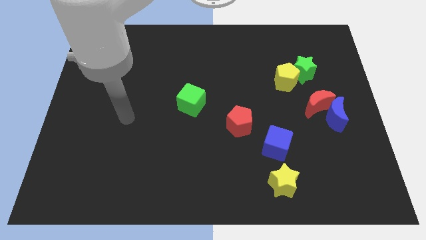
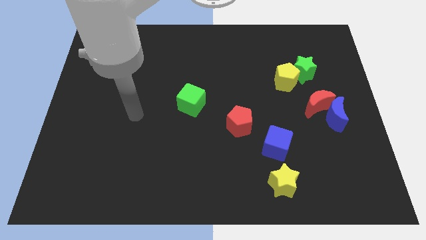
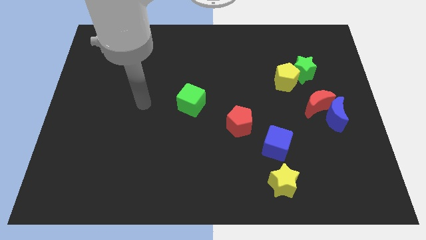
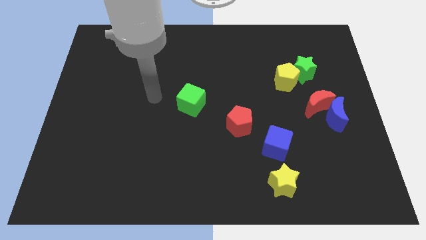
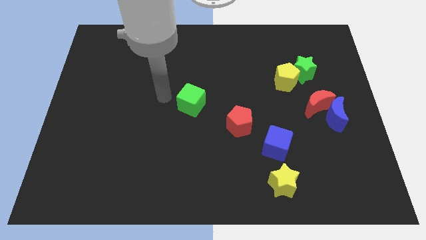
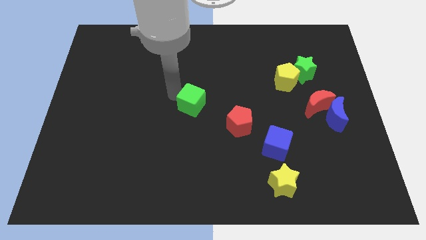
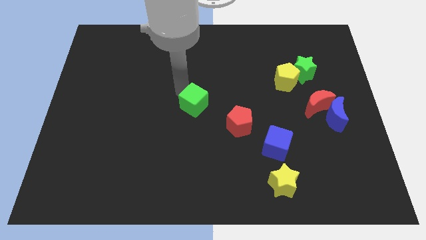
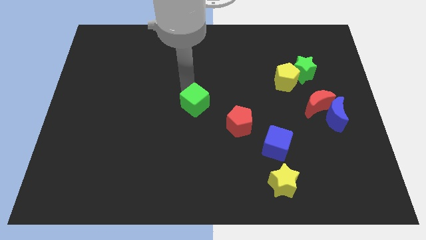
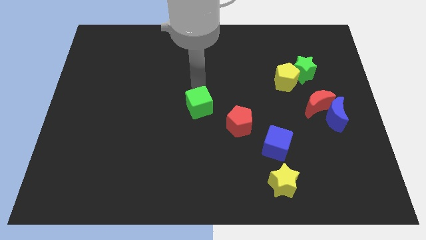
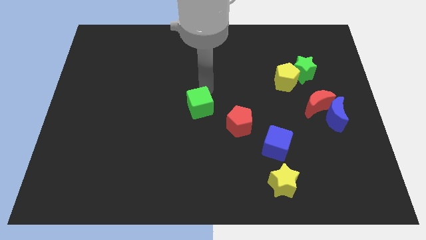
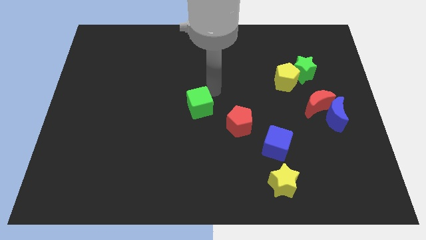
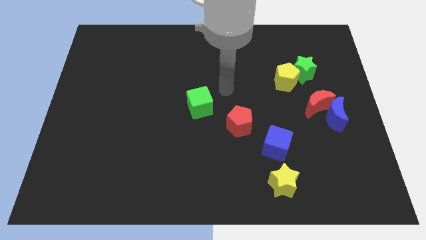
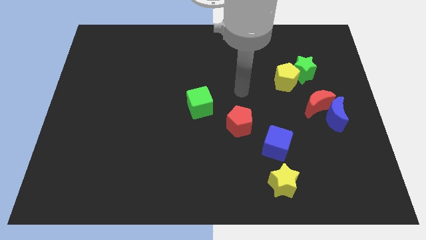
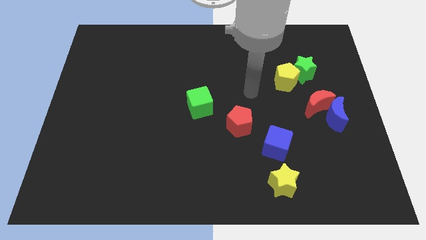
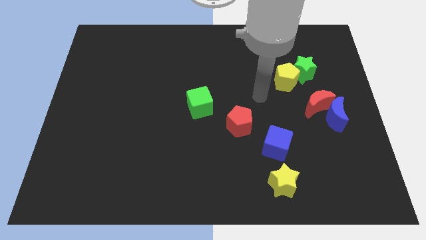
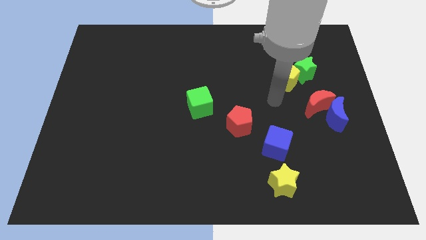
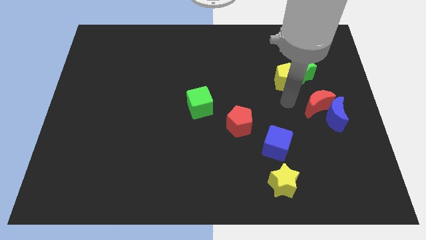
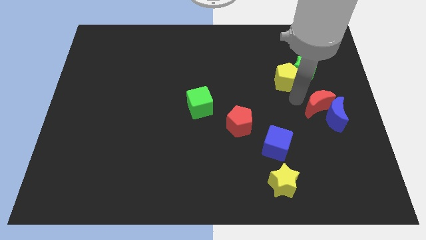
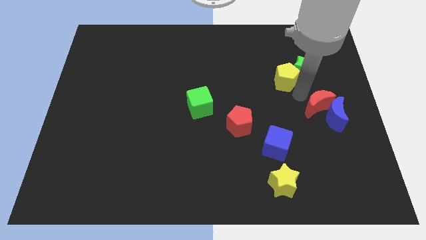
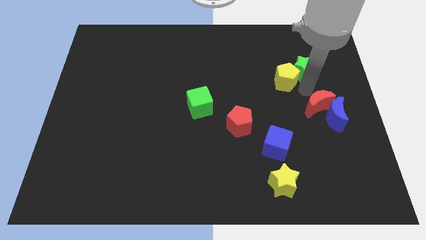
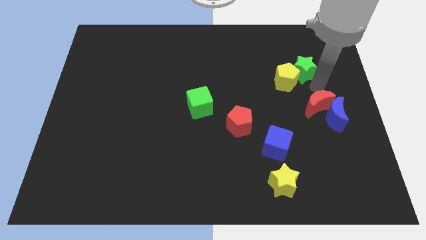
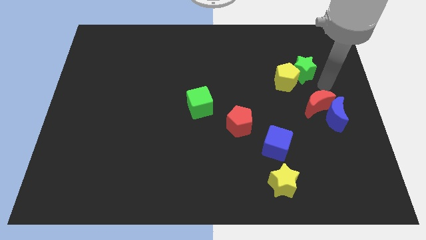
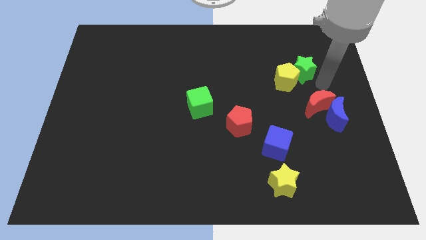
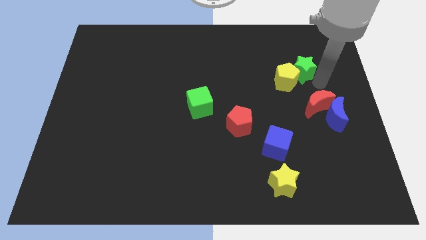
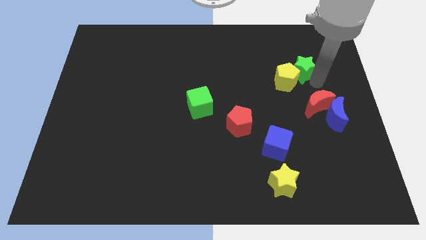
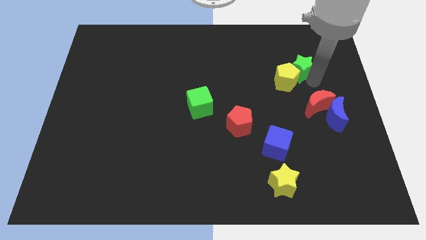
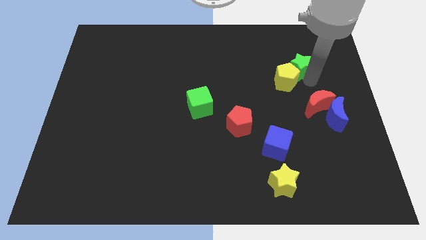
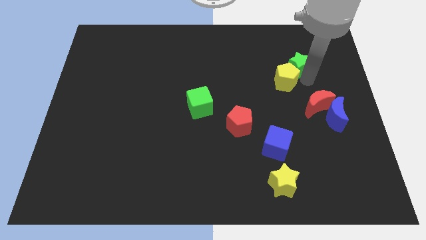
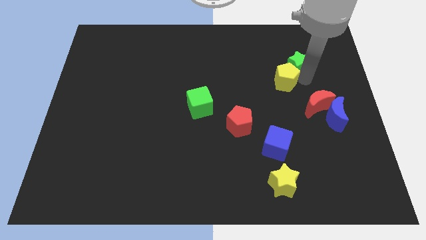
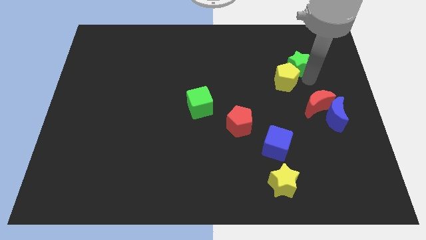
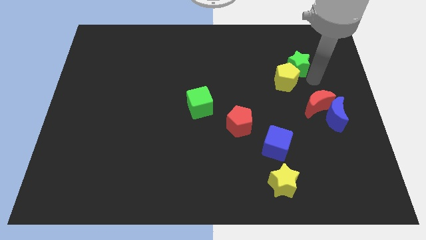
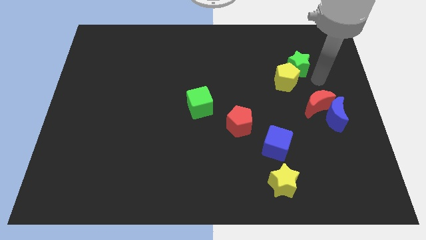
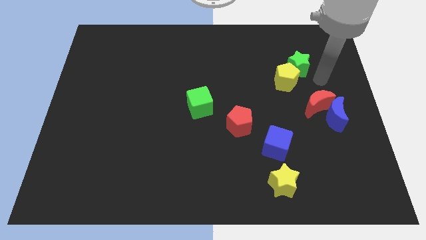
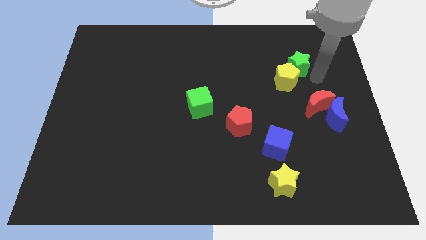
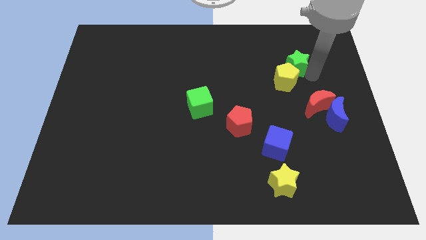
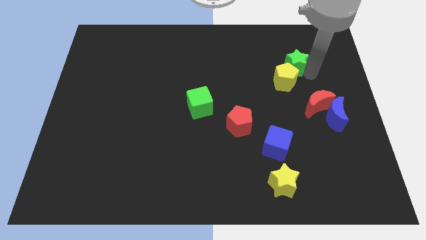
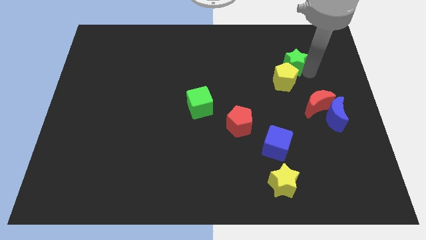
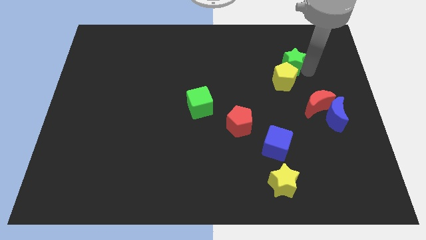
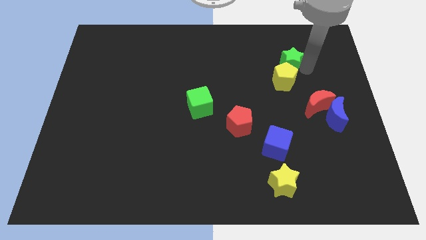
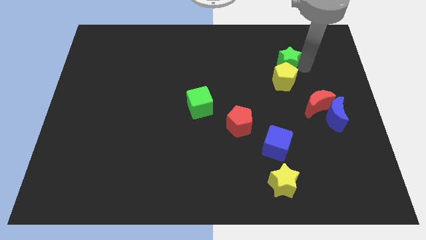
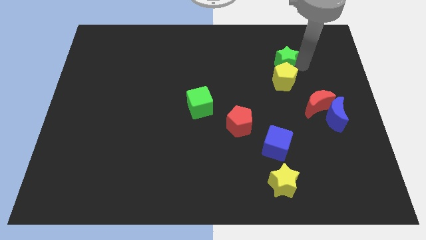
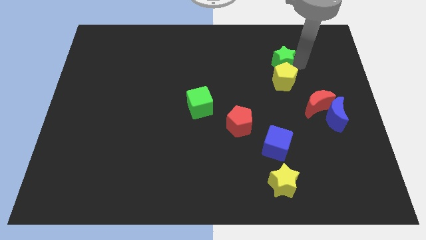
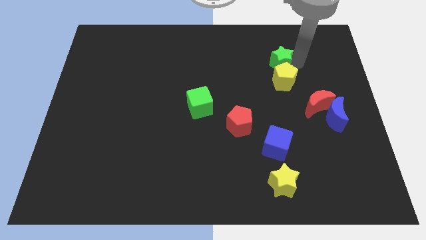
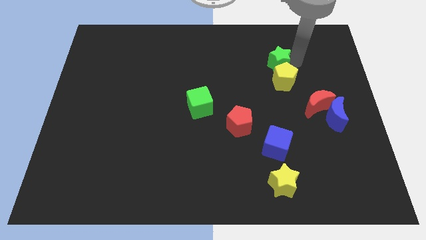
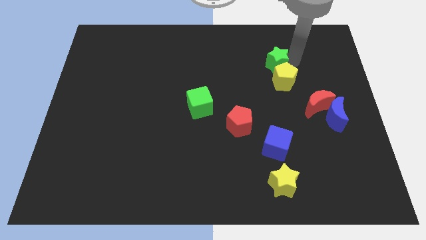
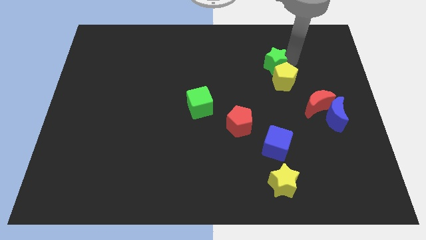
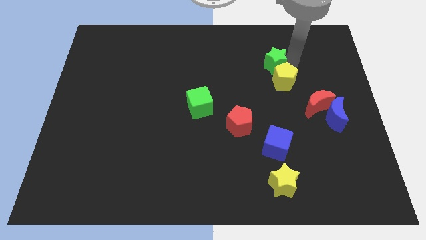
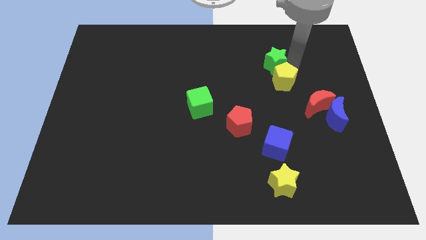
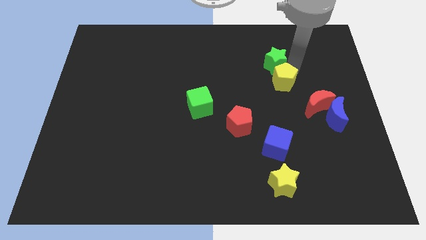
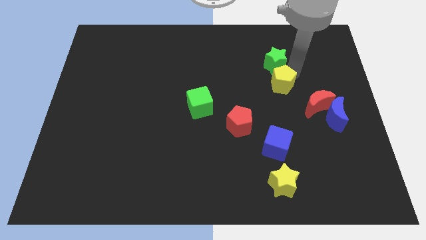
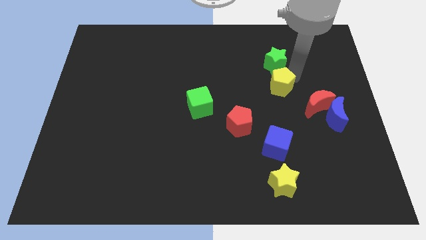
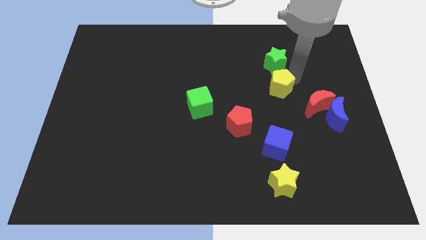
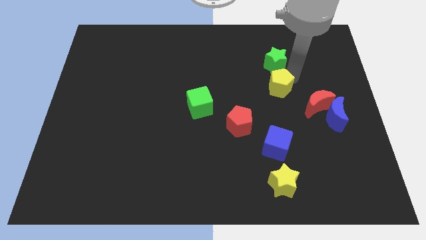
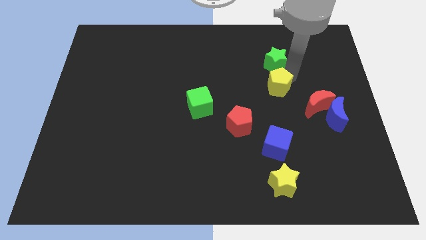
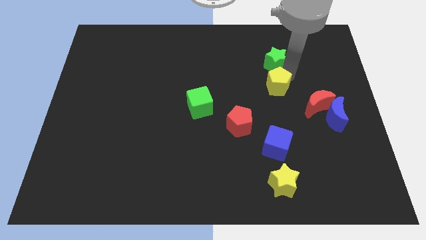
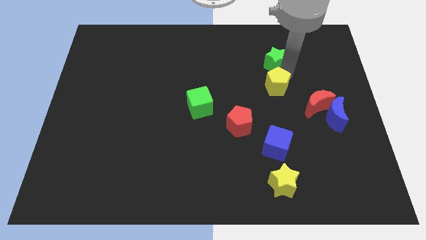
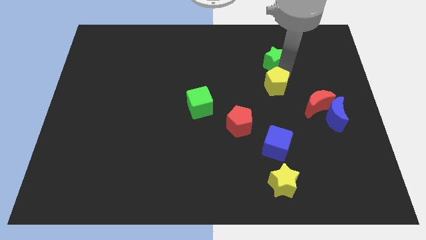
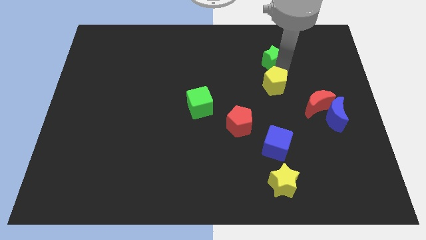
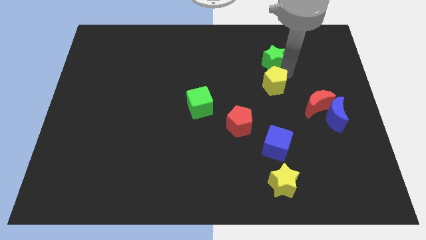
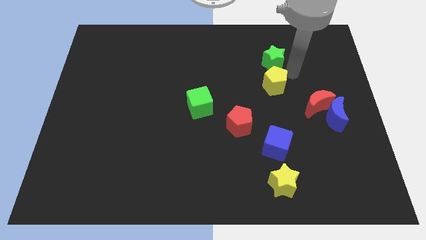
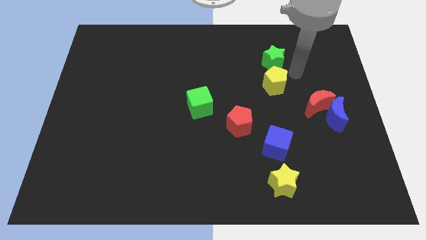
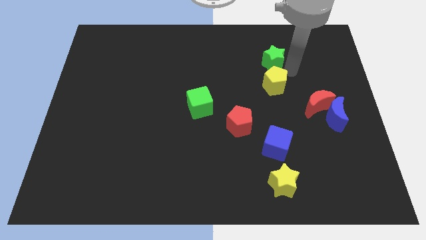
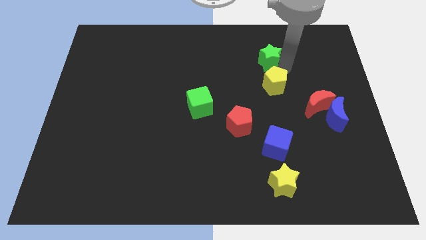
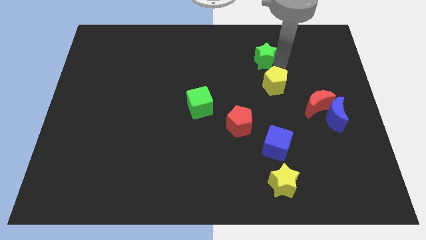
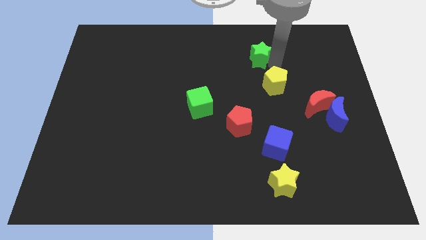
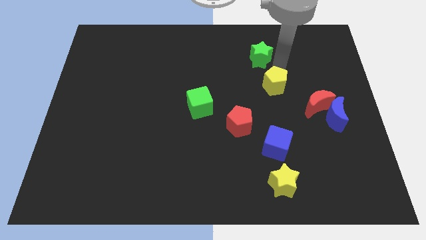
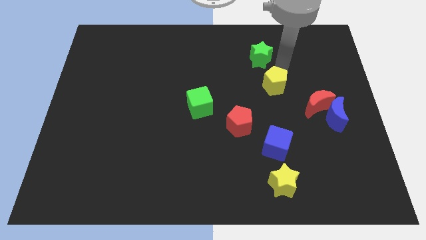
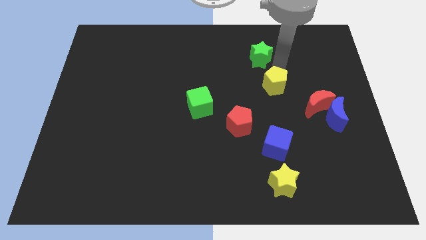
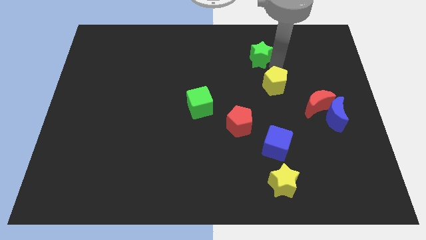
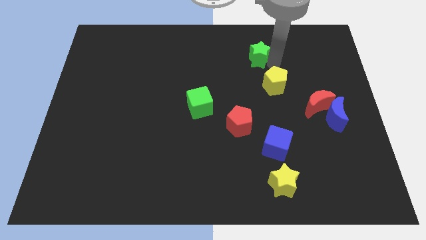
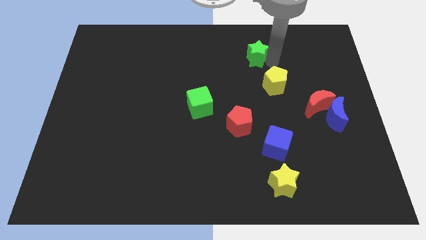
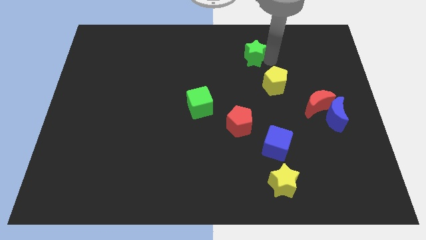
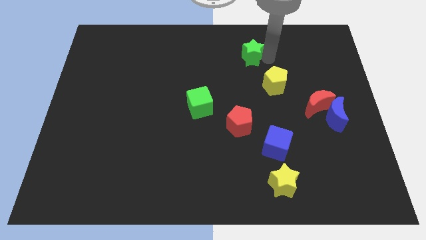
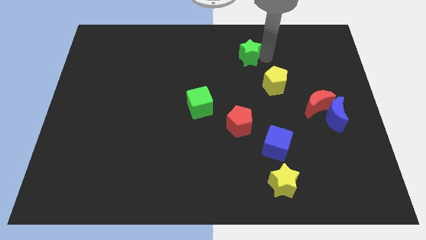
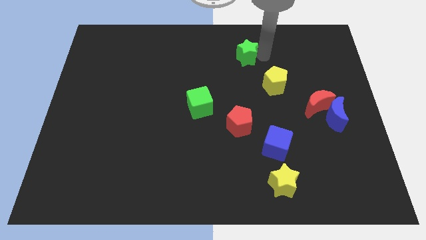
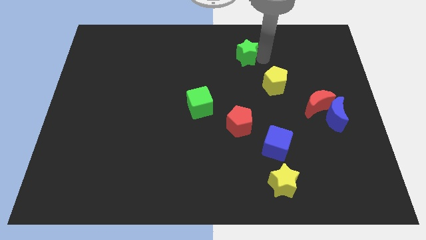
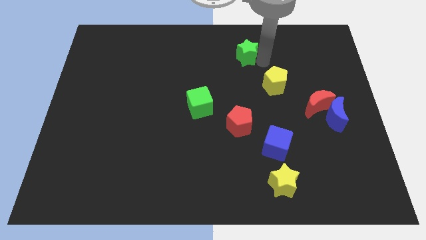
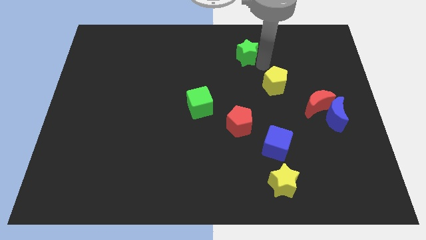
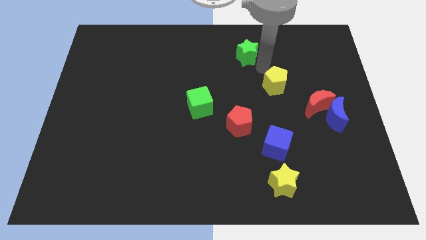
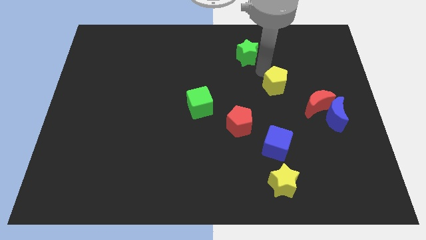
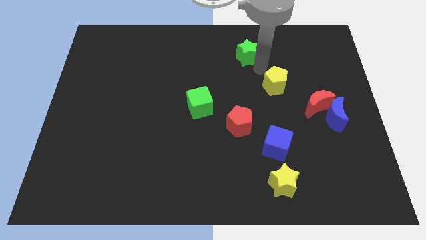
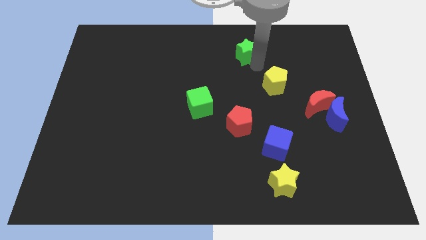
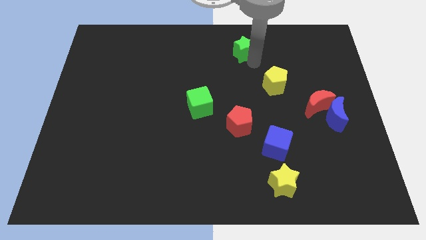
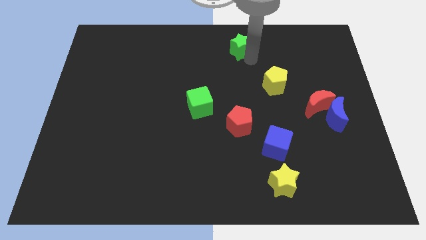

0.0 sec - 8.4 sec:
put the green star to the top side
